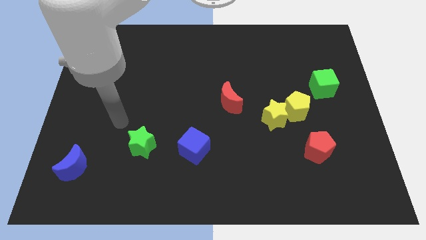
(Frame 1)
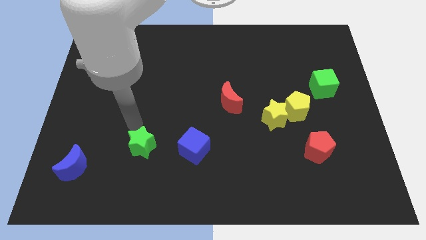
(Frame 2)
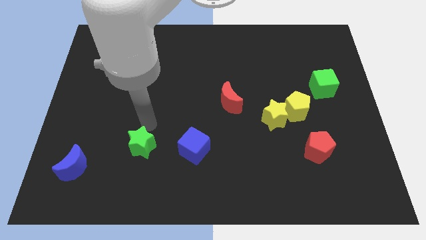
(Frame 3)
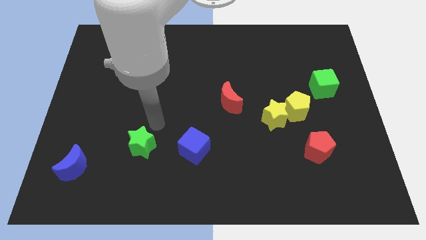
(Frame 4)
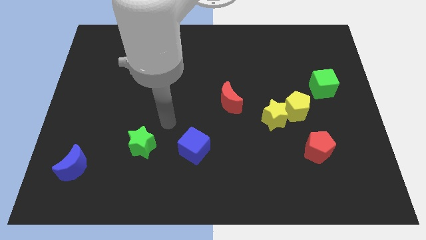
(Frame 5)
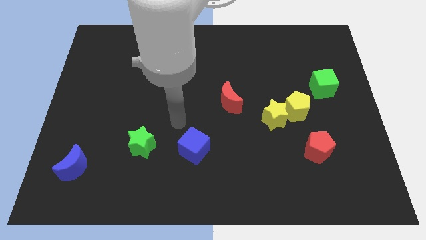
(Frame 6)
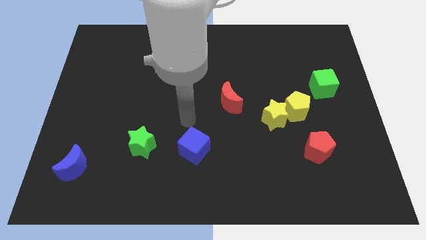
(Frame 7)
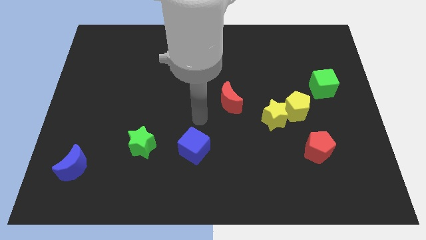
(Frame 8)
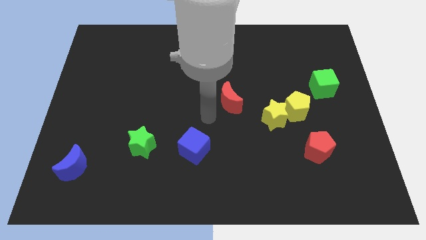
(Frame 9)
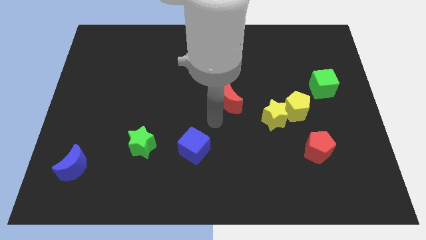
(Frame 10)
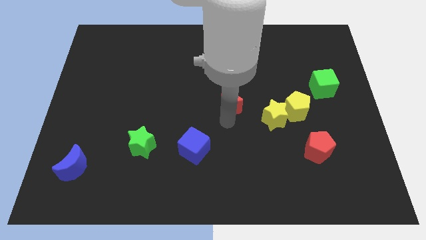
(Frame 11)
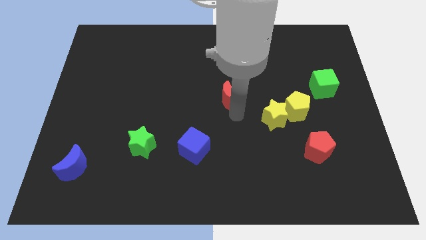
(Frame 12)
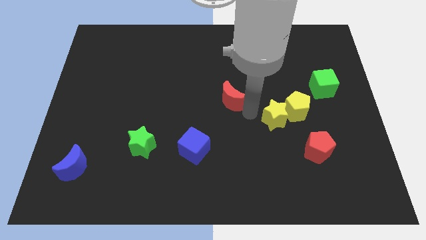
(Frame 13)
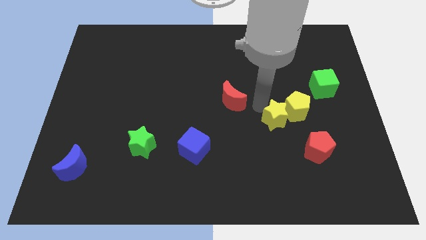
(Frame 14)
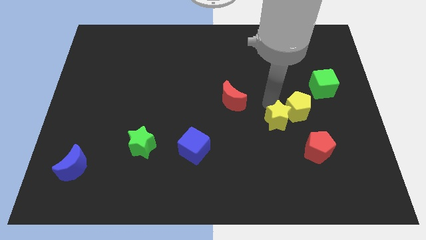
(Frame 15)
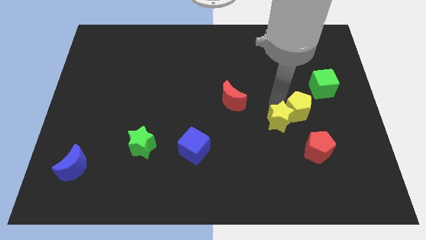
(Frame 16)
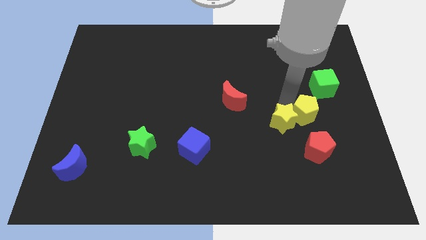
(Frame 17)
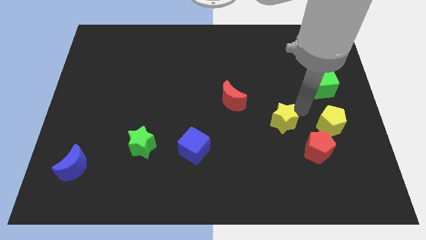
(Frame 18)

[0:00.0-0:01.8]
pull the yellow star apart from the yellow pentagon

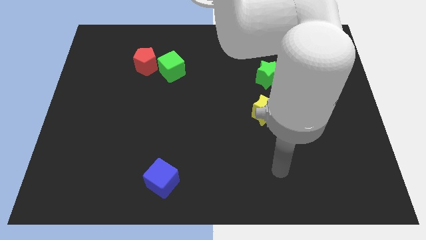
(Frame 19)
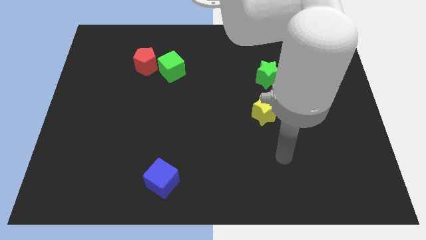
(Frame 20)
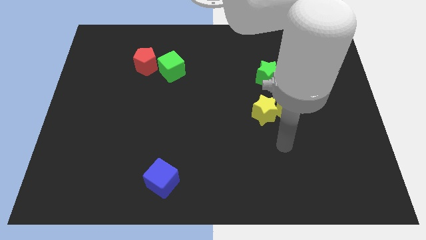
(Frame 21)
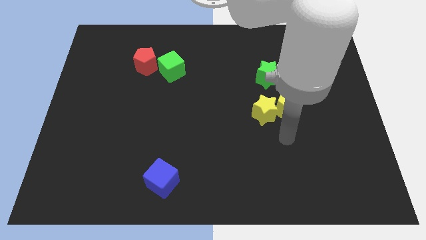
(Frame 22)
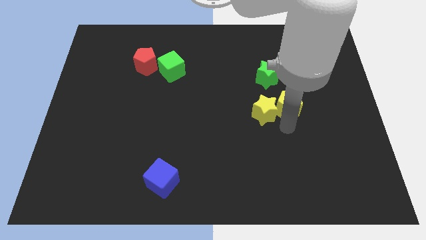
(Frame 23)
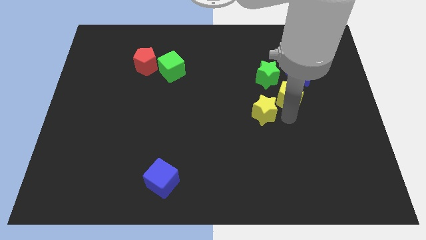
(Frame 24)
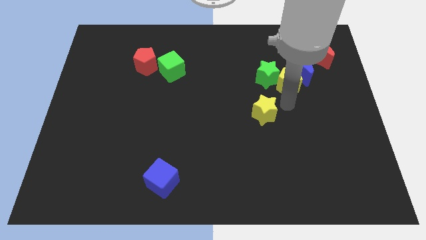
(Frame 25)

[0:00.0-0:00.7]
move the yellow star away from the yellow pentagon

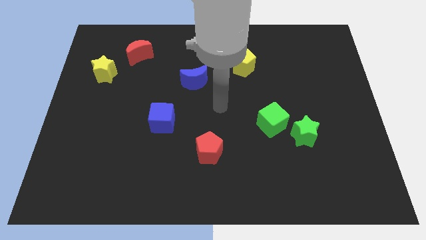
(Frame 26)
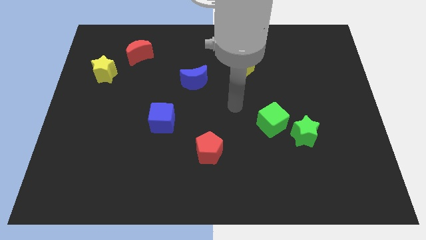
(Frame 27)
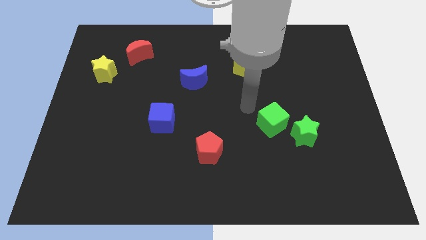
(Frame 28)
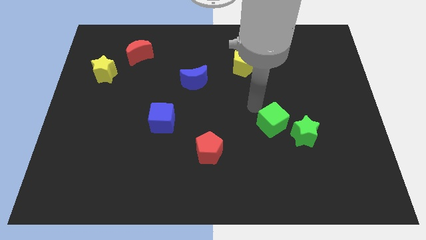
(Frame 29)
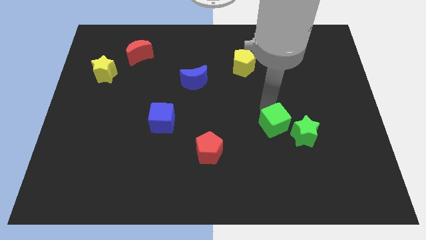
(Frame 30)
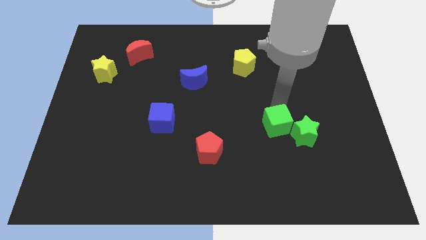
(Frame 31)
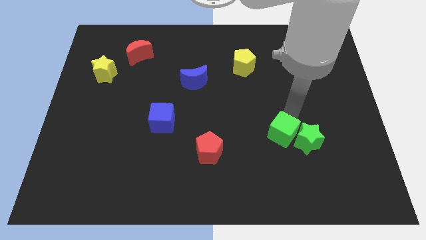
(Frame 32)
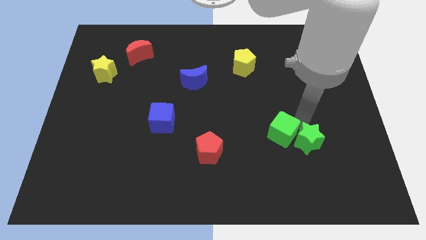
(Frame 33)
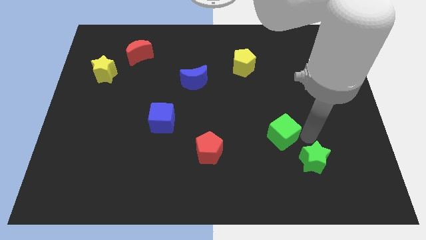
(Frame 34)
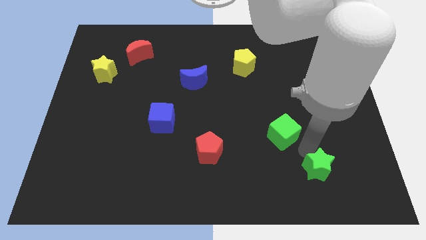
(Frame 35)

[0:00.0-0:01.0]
move the green cube away from the green star

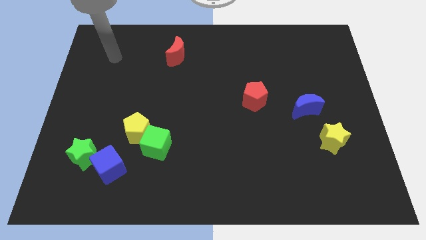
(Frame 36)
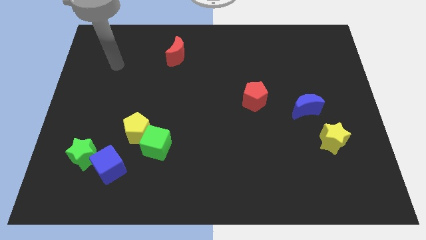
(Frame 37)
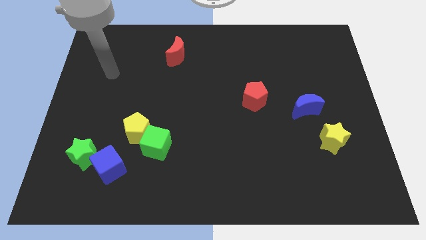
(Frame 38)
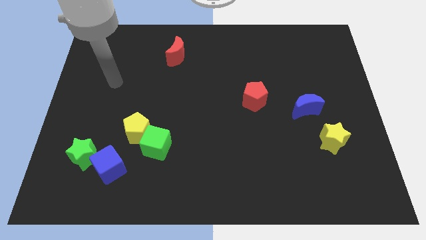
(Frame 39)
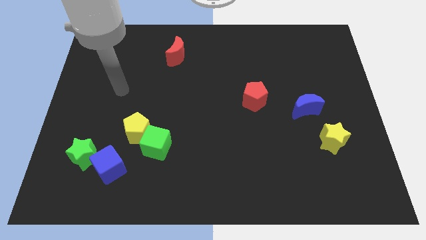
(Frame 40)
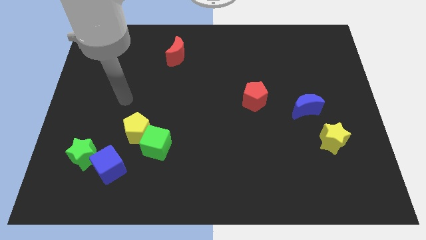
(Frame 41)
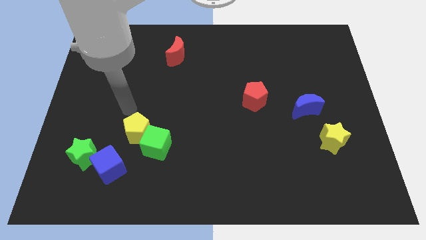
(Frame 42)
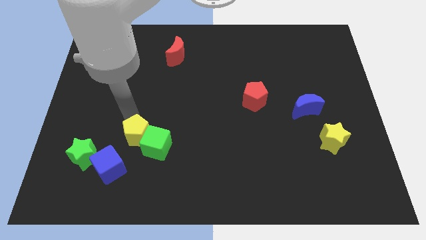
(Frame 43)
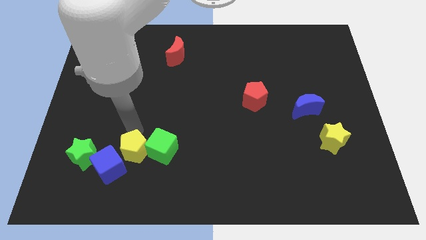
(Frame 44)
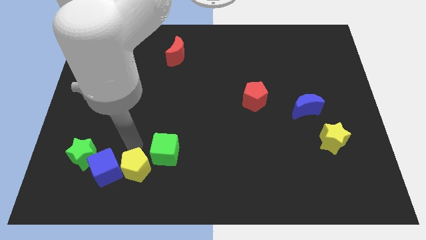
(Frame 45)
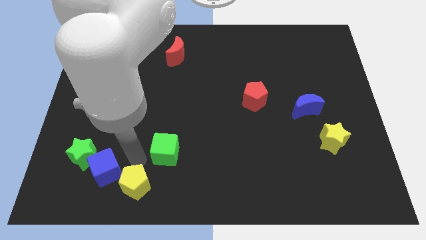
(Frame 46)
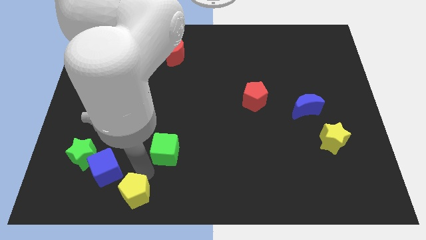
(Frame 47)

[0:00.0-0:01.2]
separate the green cube from the yellow pentagon

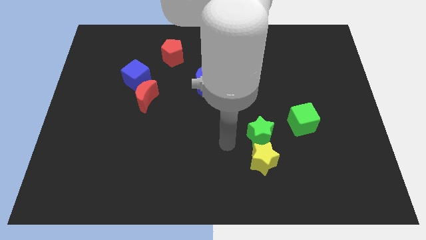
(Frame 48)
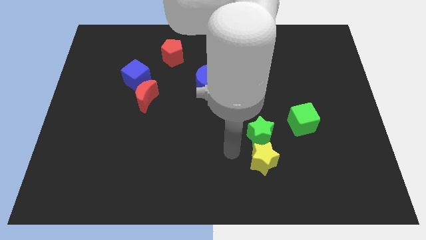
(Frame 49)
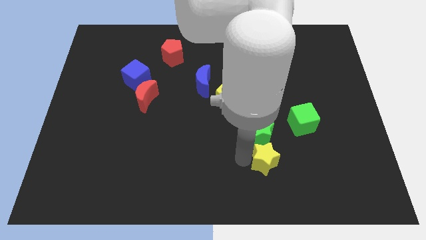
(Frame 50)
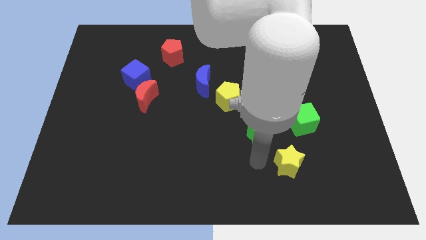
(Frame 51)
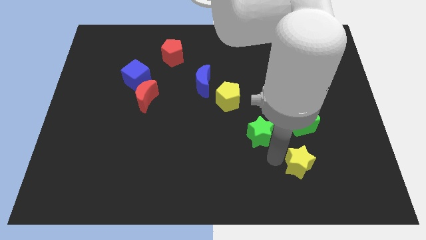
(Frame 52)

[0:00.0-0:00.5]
pull the green star apart from the yellow star

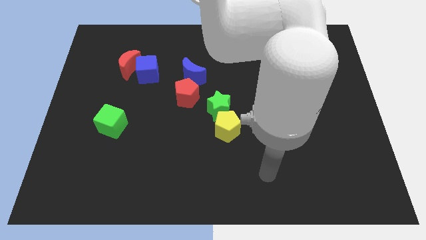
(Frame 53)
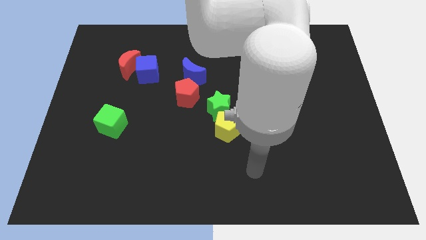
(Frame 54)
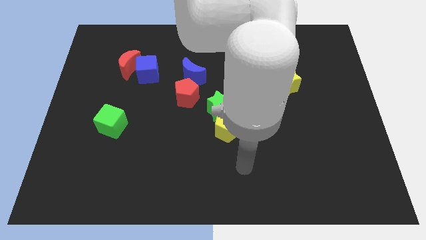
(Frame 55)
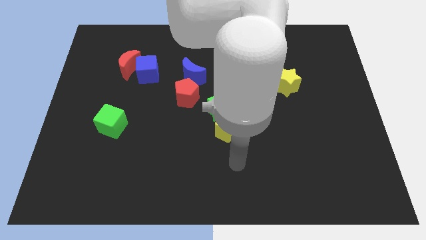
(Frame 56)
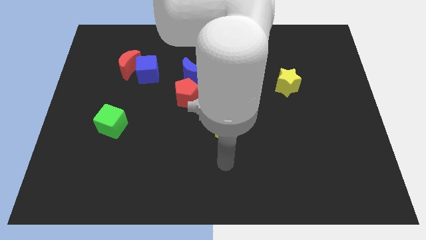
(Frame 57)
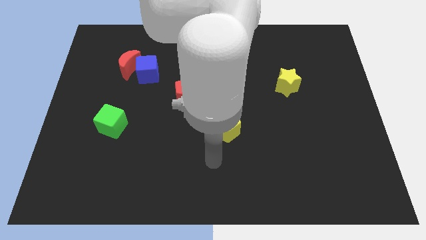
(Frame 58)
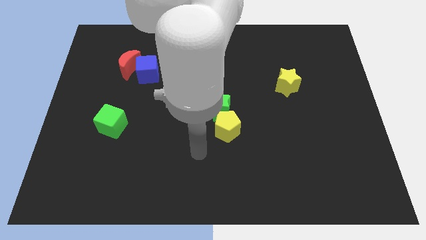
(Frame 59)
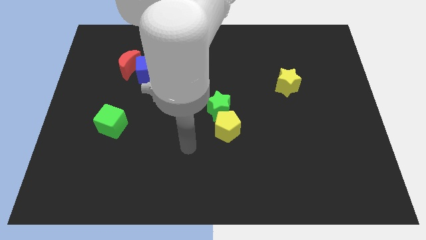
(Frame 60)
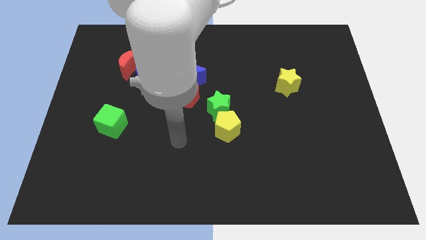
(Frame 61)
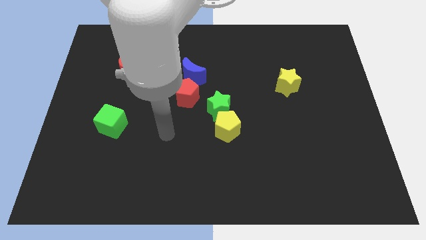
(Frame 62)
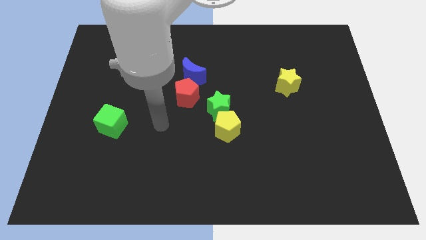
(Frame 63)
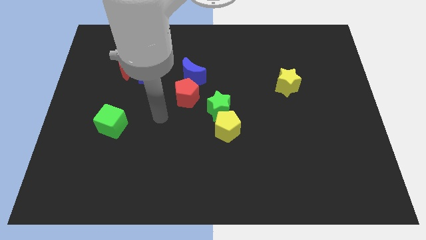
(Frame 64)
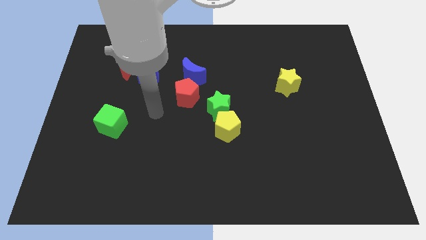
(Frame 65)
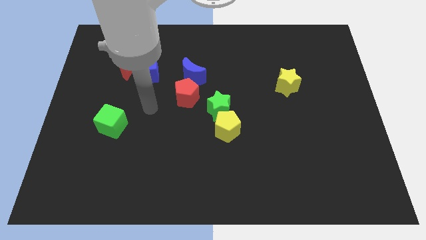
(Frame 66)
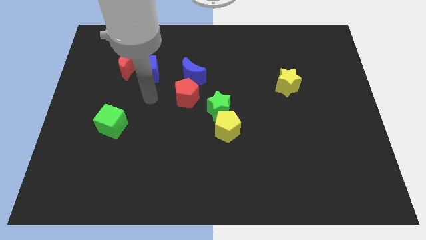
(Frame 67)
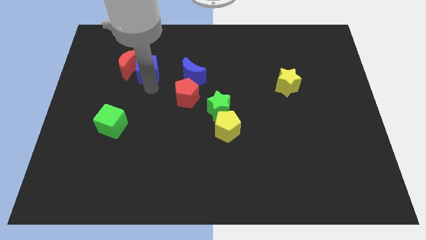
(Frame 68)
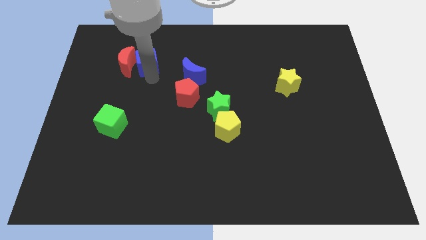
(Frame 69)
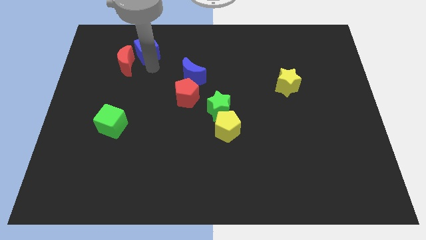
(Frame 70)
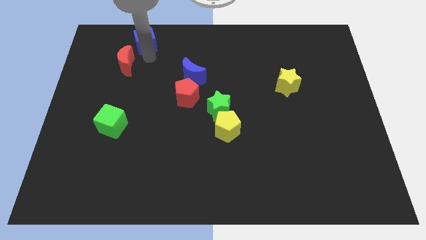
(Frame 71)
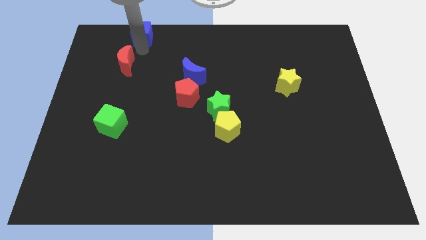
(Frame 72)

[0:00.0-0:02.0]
pull the red moon apart from the blue cube

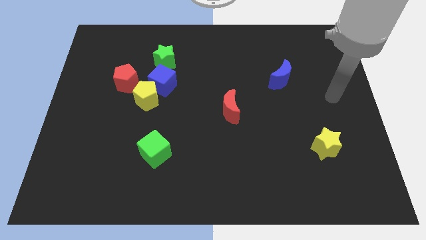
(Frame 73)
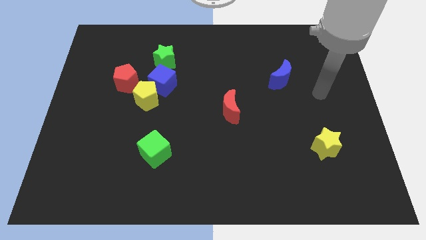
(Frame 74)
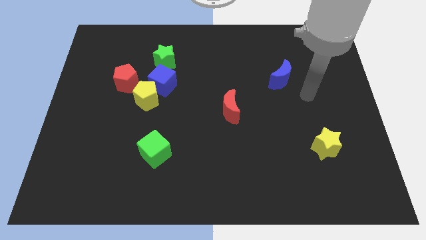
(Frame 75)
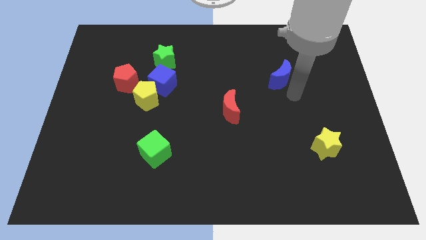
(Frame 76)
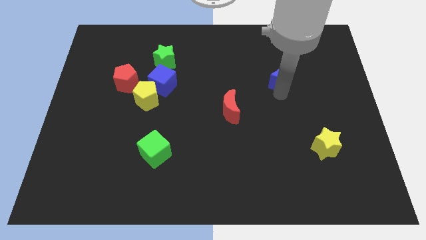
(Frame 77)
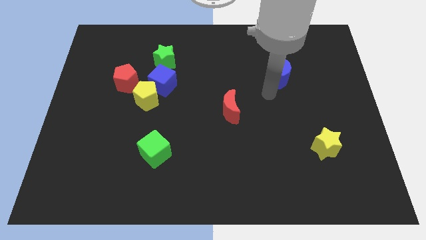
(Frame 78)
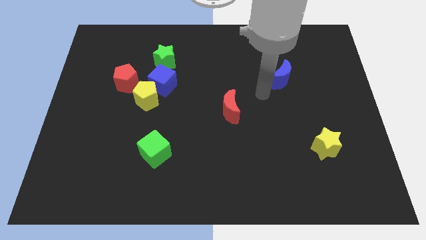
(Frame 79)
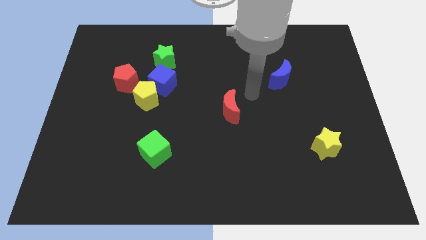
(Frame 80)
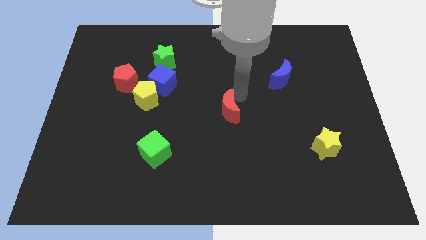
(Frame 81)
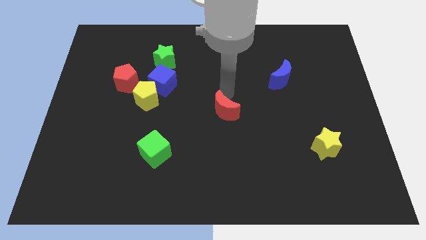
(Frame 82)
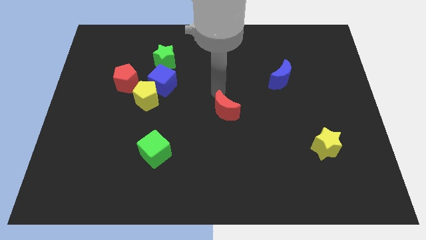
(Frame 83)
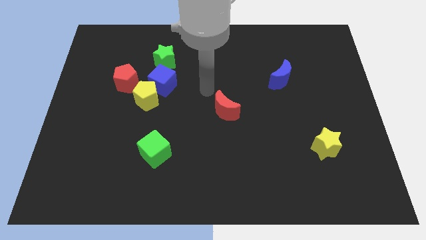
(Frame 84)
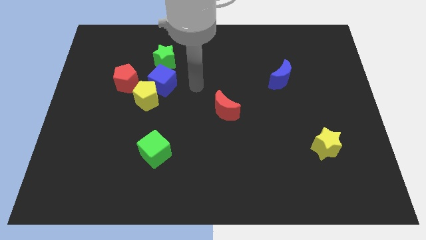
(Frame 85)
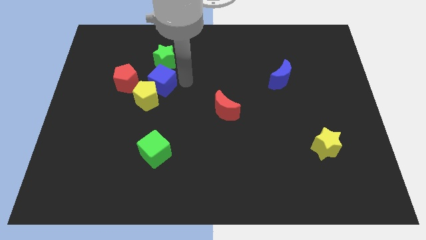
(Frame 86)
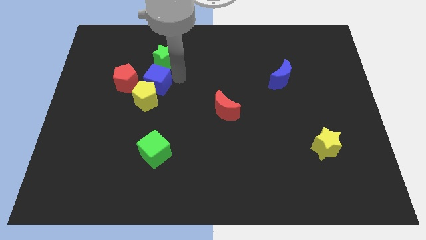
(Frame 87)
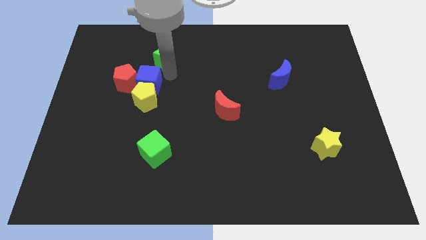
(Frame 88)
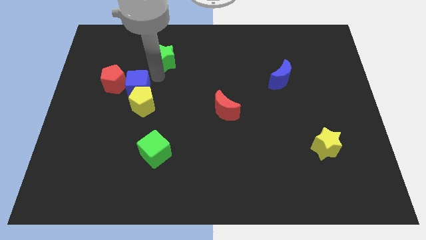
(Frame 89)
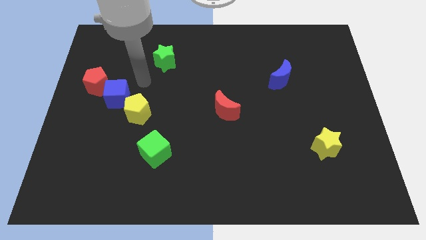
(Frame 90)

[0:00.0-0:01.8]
pull the yellow pentagon apart from the blue cube and red pentagon

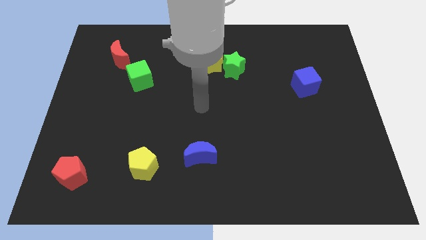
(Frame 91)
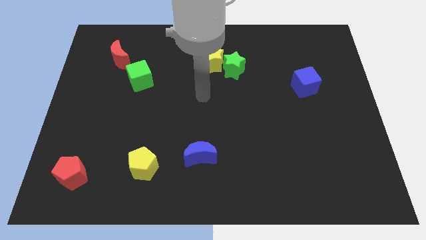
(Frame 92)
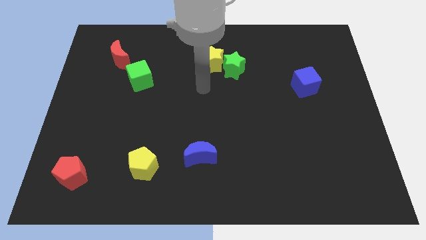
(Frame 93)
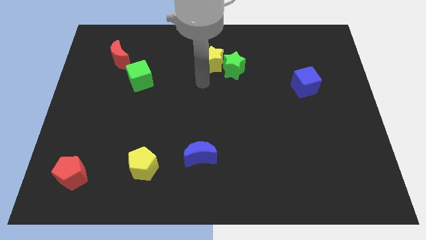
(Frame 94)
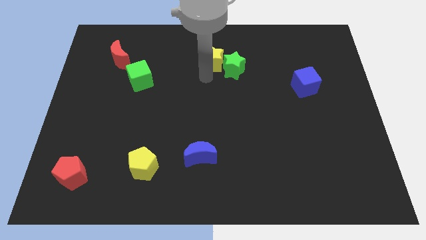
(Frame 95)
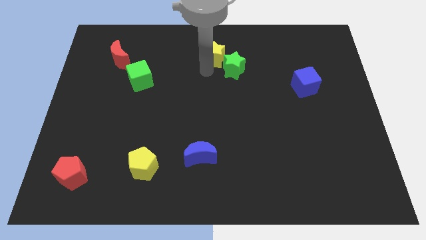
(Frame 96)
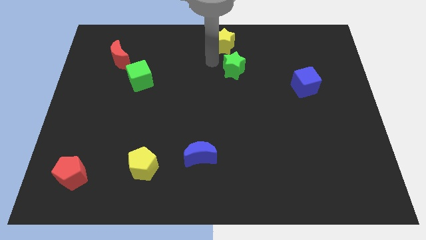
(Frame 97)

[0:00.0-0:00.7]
separate the green star from the yellow star
